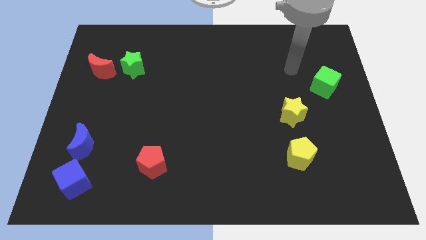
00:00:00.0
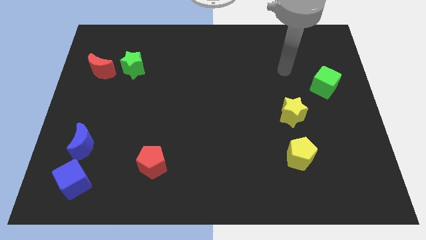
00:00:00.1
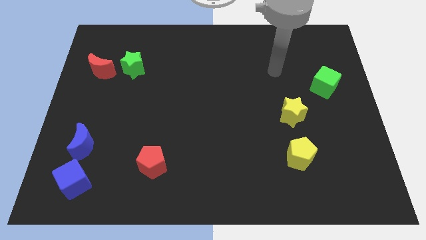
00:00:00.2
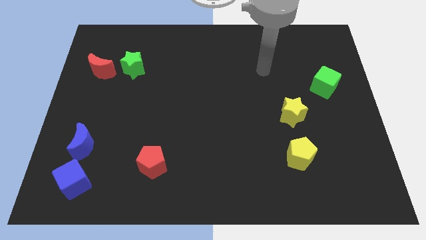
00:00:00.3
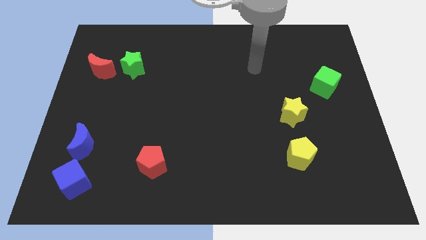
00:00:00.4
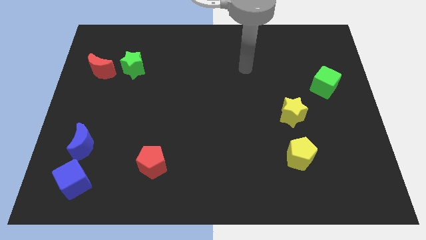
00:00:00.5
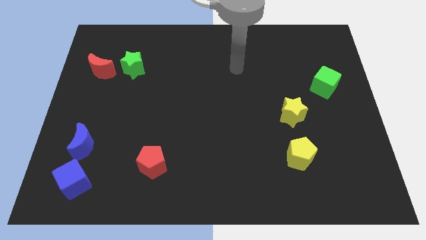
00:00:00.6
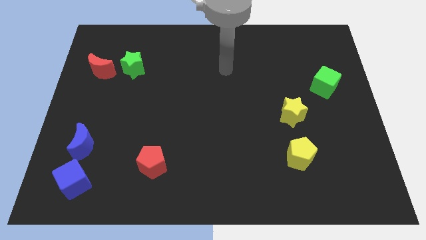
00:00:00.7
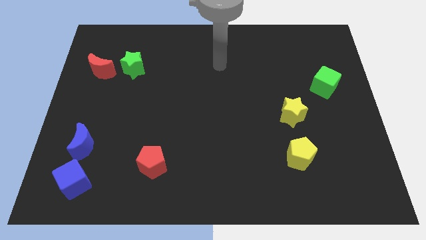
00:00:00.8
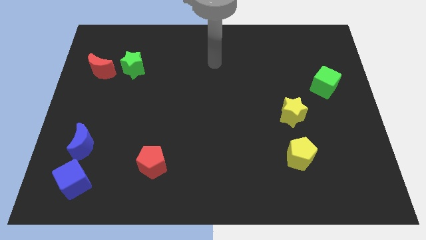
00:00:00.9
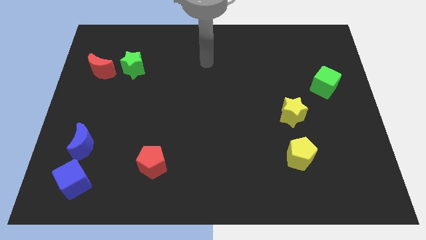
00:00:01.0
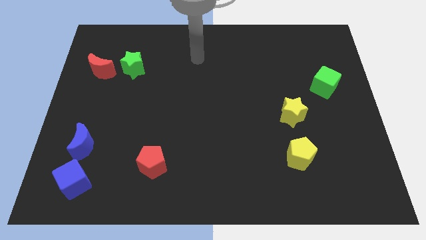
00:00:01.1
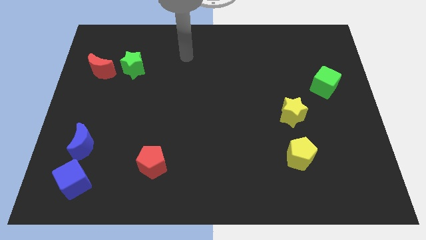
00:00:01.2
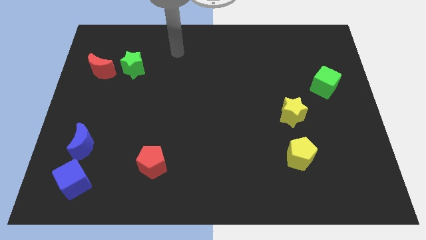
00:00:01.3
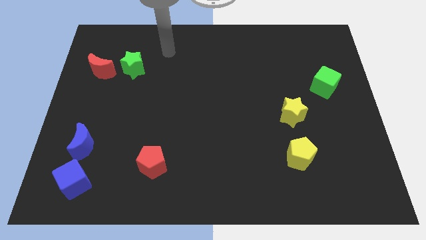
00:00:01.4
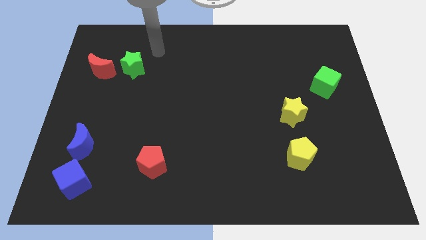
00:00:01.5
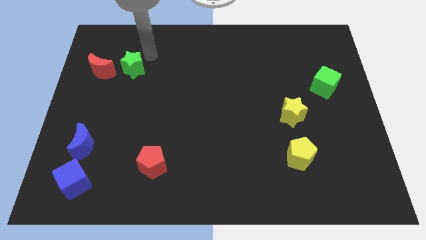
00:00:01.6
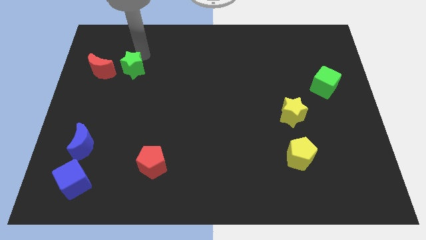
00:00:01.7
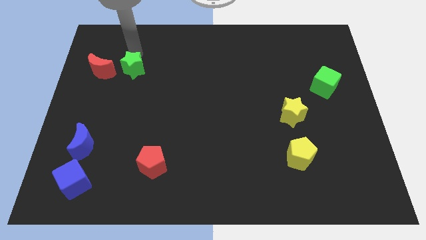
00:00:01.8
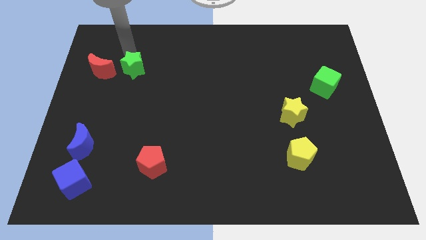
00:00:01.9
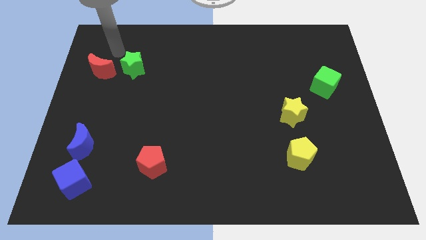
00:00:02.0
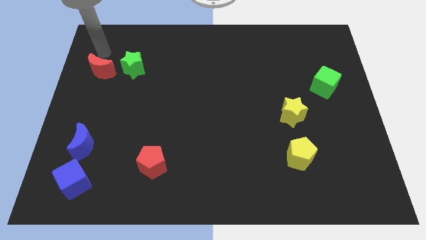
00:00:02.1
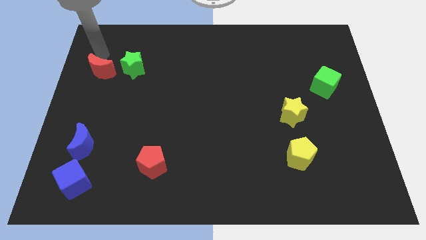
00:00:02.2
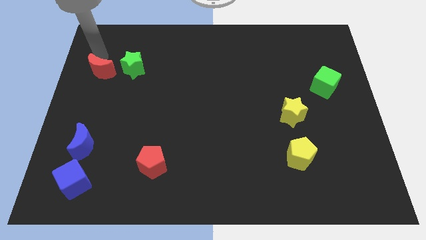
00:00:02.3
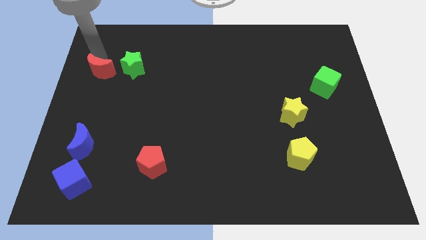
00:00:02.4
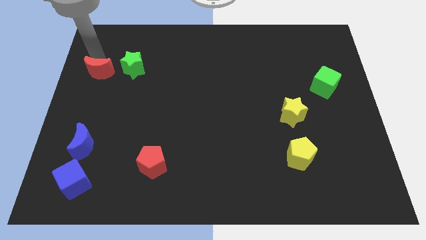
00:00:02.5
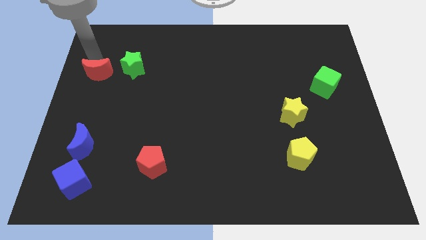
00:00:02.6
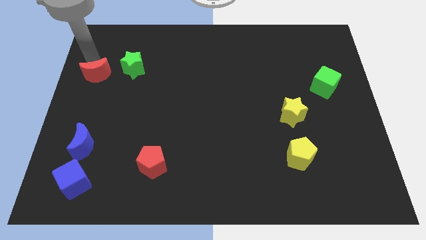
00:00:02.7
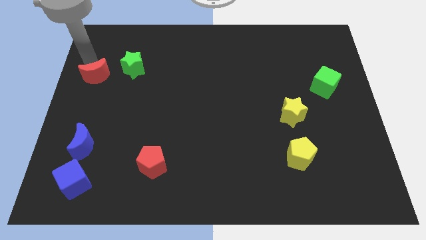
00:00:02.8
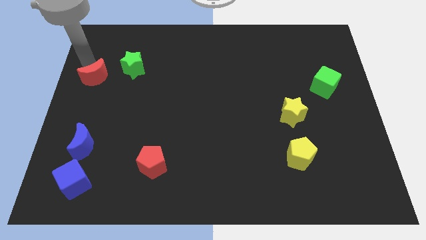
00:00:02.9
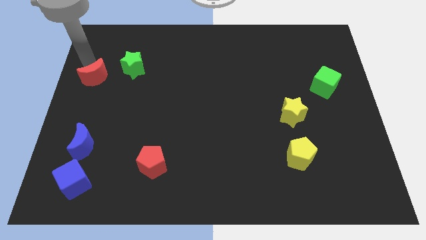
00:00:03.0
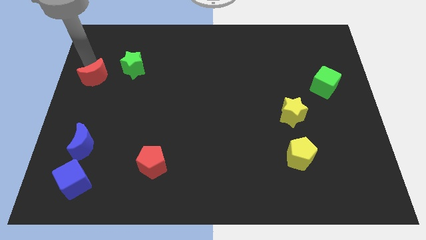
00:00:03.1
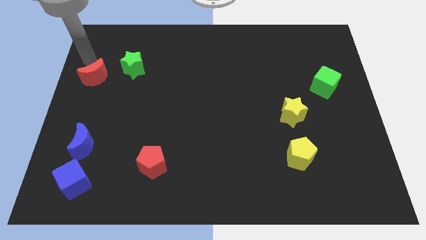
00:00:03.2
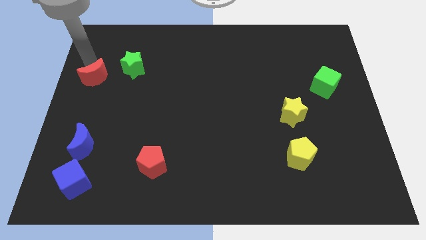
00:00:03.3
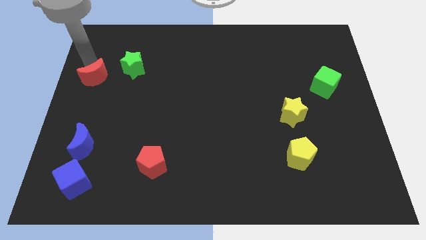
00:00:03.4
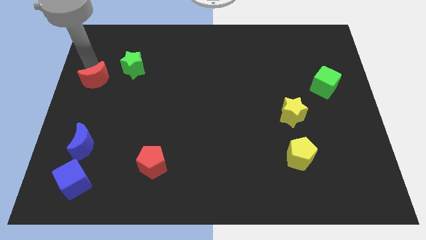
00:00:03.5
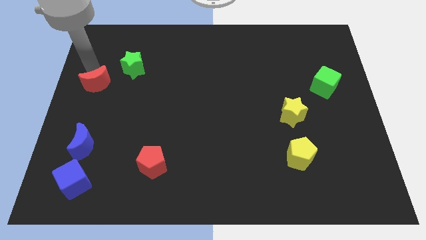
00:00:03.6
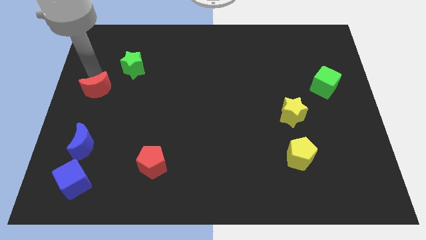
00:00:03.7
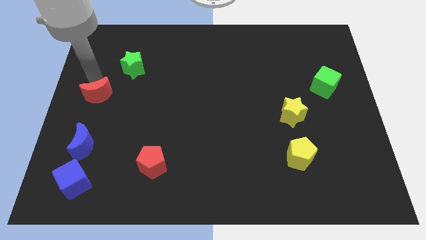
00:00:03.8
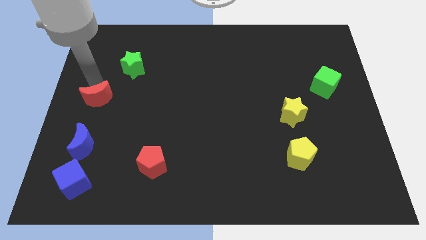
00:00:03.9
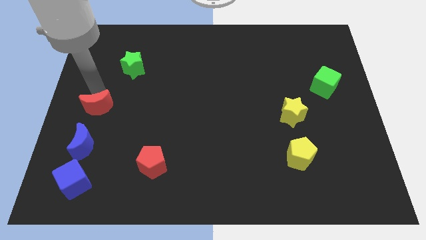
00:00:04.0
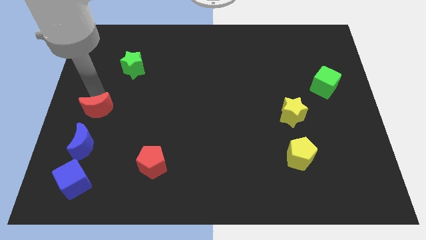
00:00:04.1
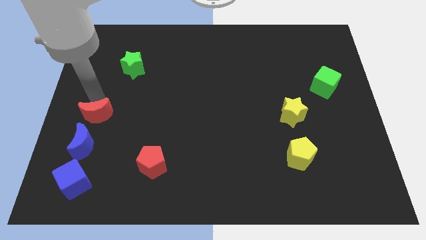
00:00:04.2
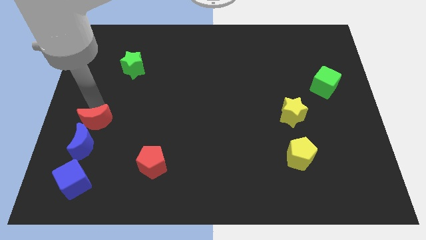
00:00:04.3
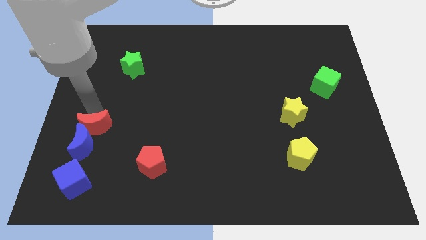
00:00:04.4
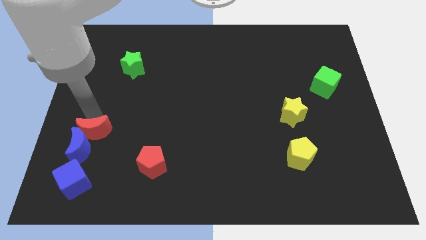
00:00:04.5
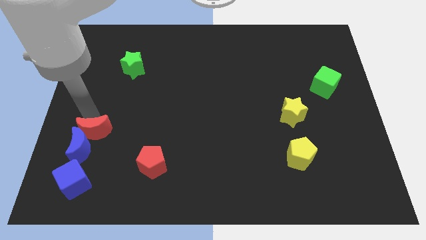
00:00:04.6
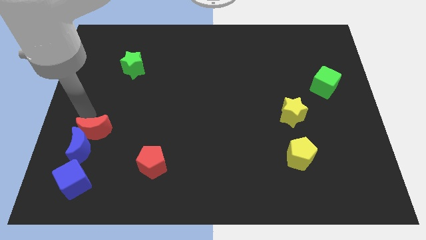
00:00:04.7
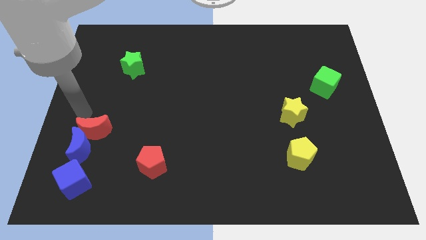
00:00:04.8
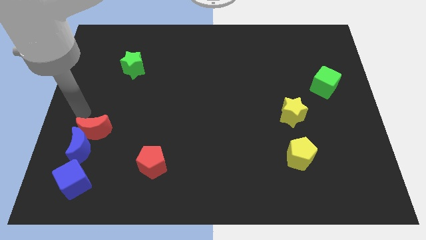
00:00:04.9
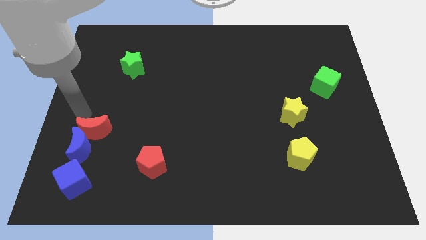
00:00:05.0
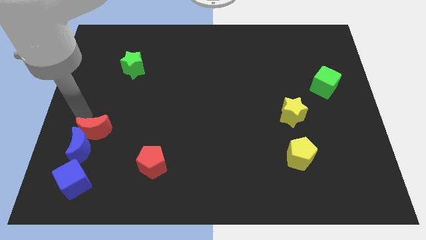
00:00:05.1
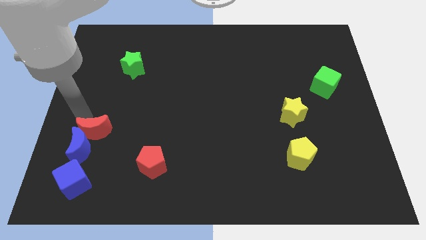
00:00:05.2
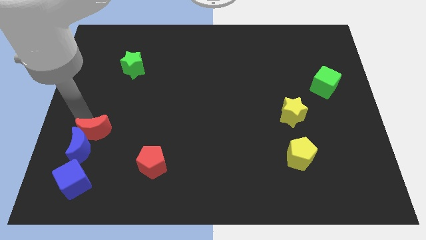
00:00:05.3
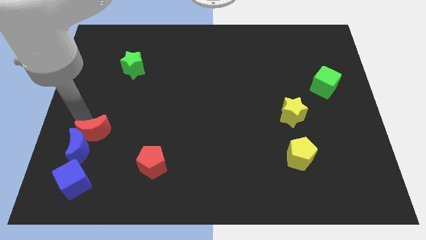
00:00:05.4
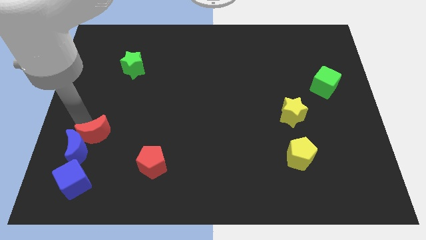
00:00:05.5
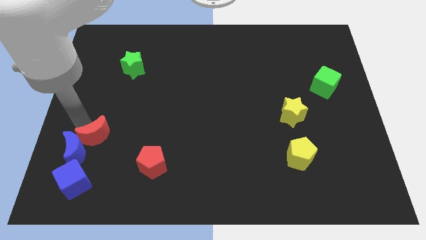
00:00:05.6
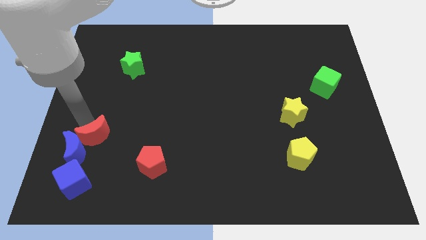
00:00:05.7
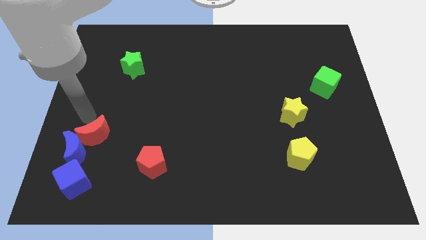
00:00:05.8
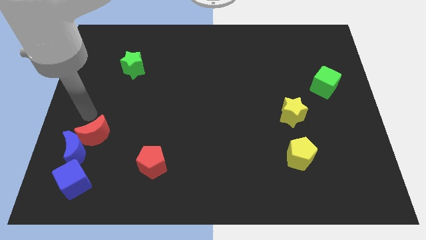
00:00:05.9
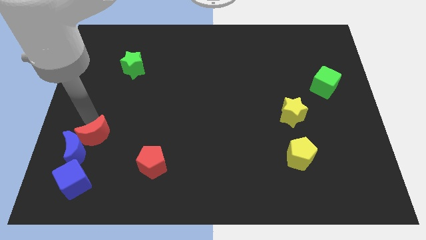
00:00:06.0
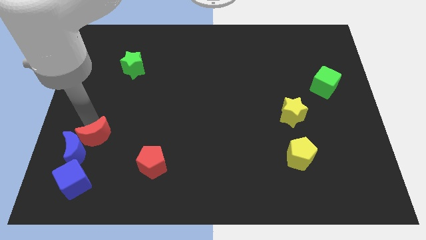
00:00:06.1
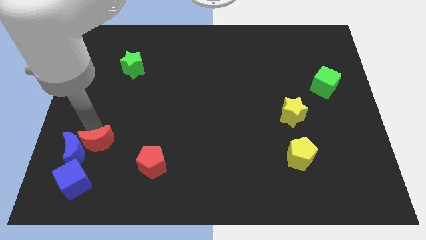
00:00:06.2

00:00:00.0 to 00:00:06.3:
move the red moon to the top right side of the blue cube

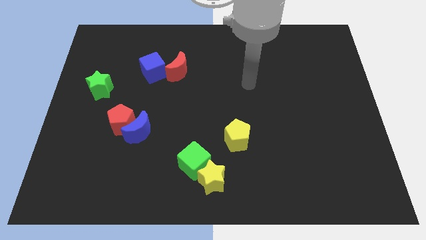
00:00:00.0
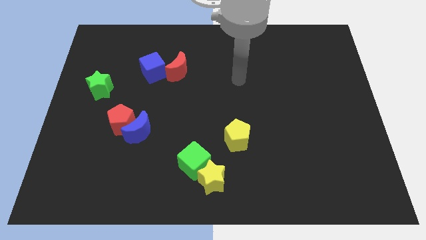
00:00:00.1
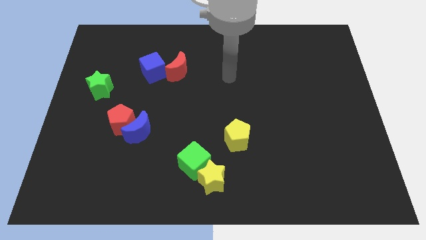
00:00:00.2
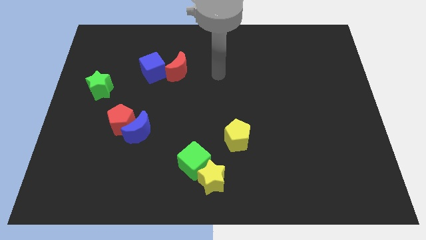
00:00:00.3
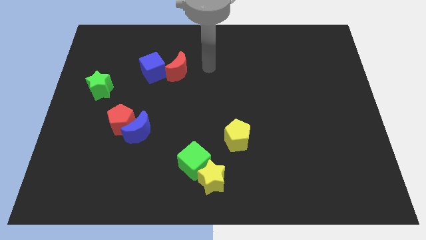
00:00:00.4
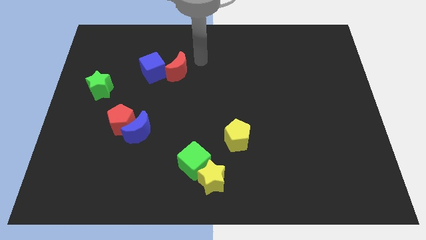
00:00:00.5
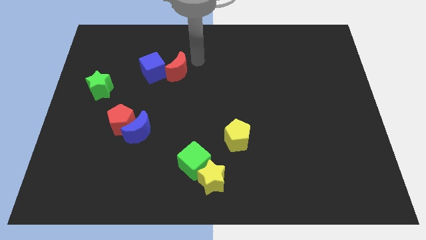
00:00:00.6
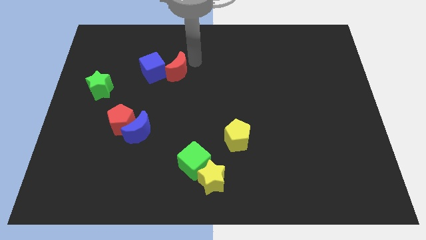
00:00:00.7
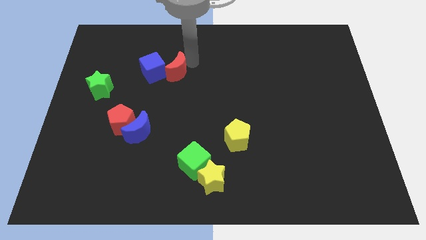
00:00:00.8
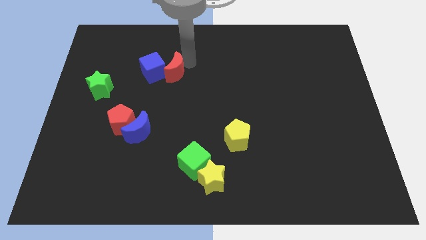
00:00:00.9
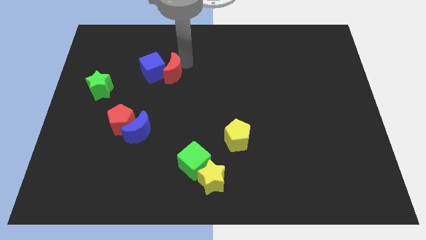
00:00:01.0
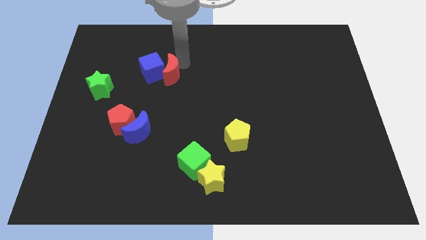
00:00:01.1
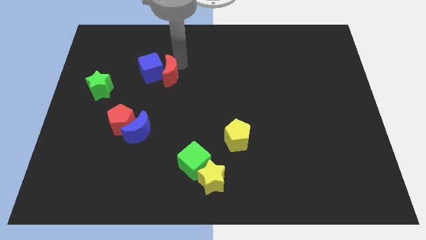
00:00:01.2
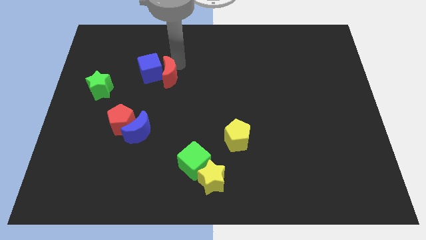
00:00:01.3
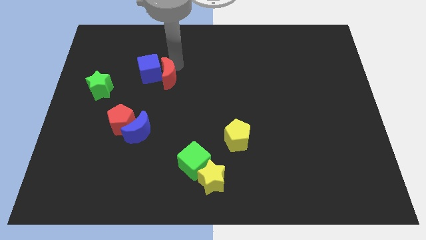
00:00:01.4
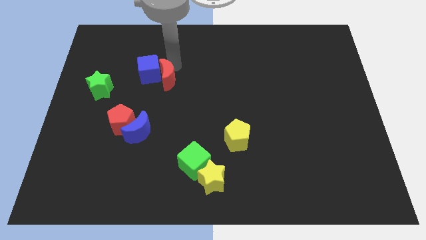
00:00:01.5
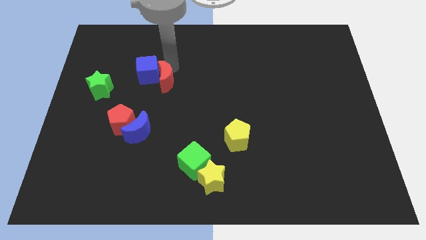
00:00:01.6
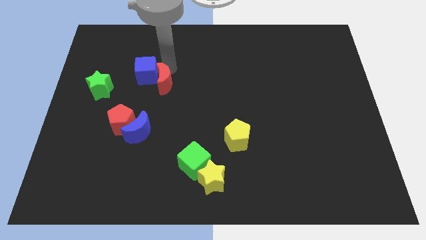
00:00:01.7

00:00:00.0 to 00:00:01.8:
move the red moon just right of the green star
